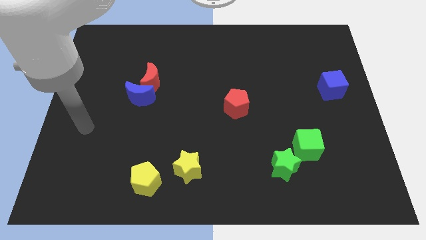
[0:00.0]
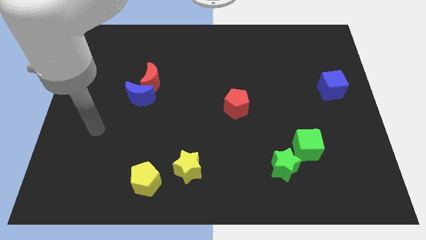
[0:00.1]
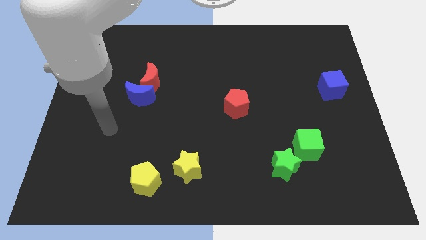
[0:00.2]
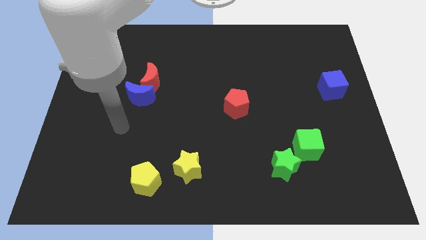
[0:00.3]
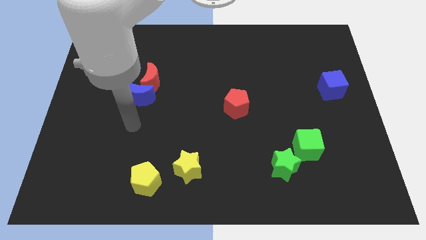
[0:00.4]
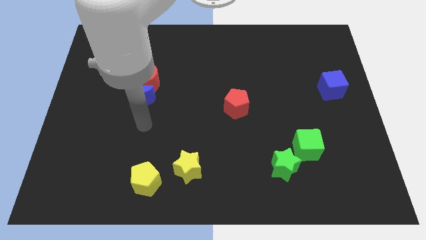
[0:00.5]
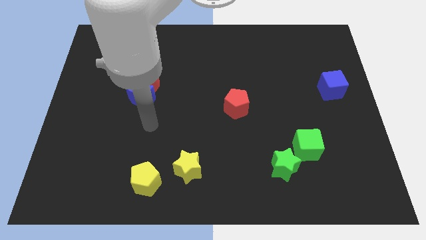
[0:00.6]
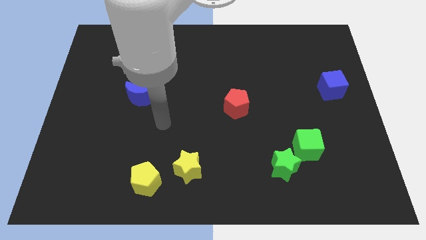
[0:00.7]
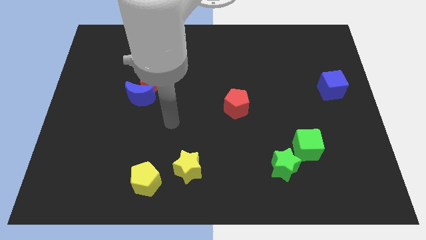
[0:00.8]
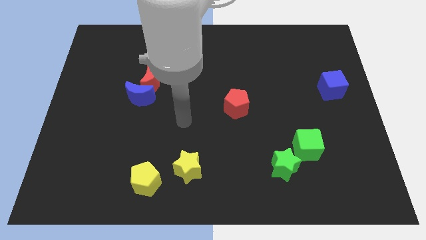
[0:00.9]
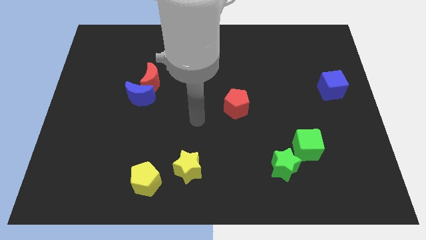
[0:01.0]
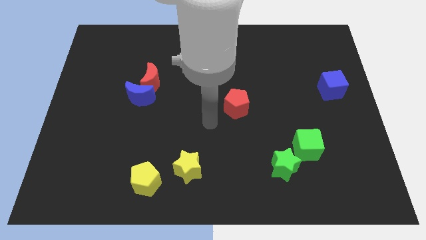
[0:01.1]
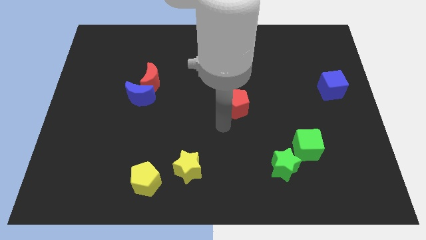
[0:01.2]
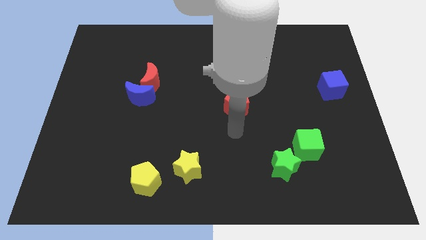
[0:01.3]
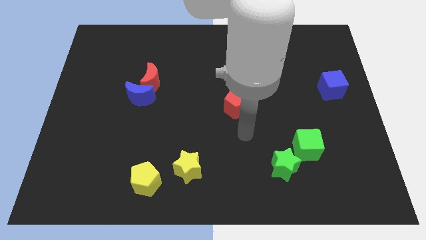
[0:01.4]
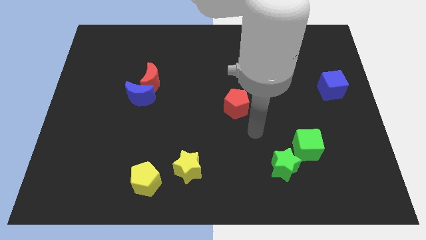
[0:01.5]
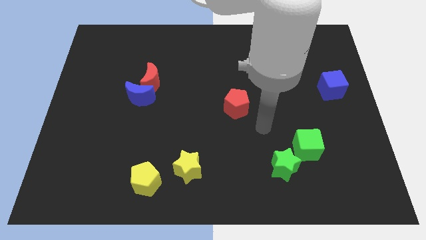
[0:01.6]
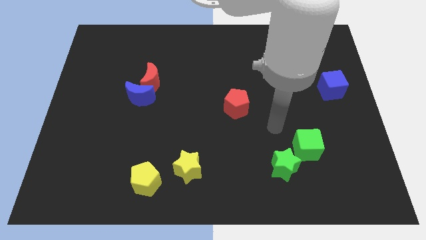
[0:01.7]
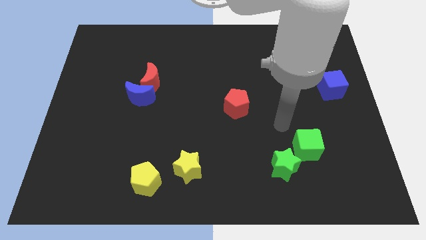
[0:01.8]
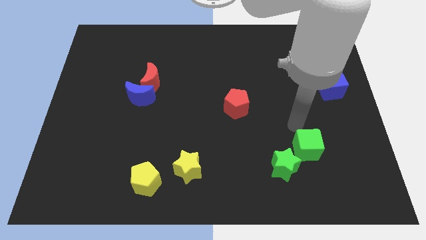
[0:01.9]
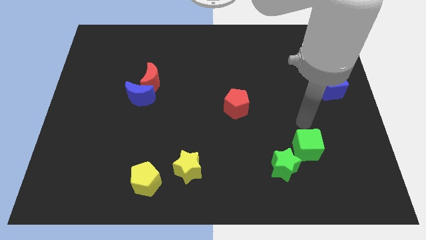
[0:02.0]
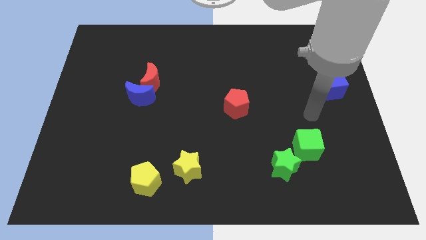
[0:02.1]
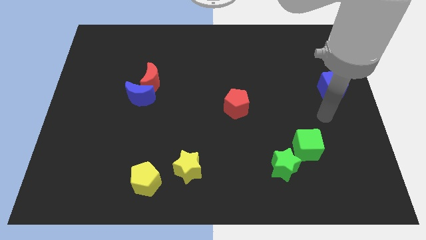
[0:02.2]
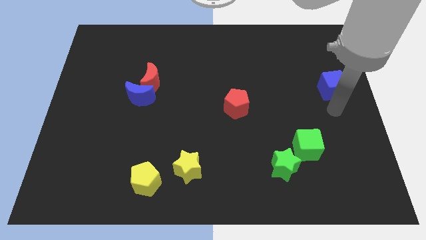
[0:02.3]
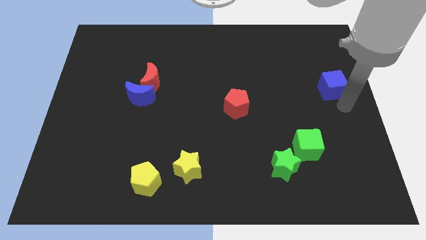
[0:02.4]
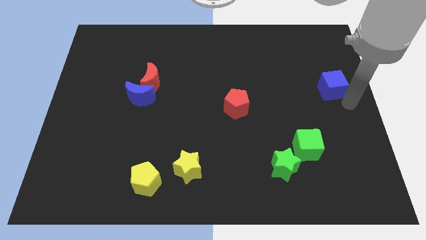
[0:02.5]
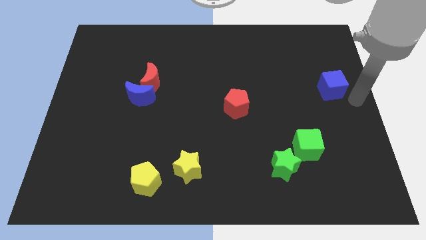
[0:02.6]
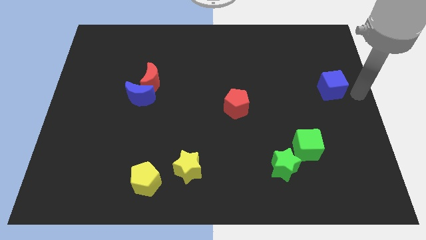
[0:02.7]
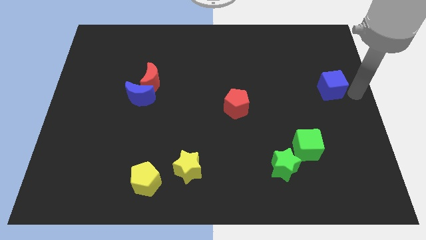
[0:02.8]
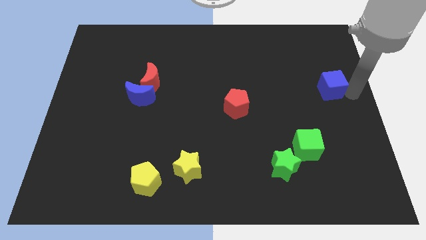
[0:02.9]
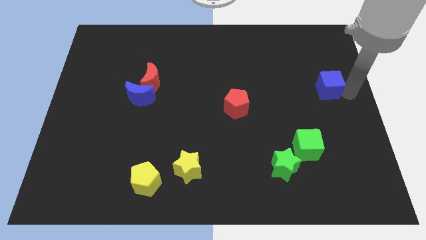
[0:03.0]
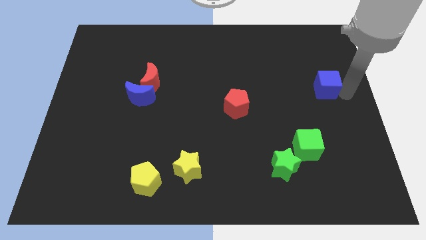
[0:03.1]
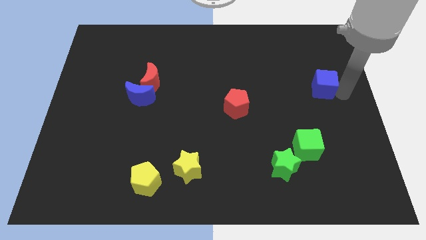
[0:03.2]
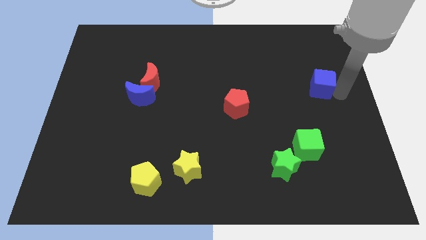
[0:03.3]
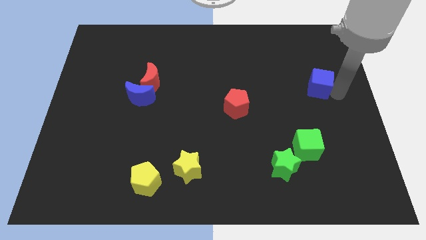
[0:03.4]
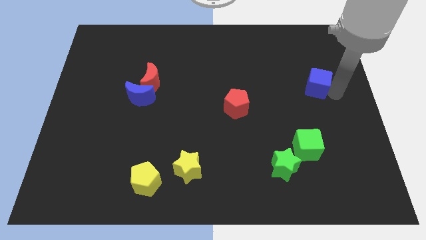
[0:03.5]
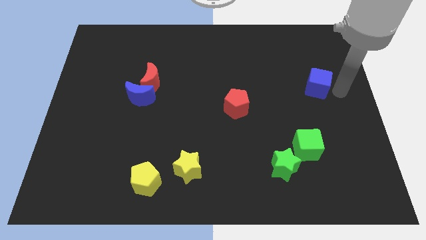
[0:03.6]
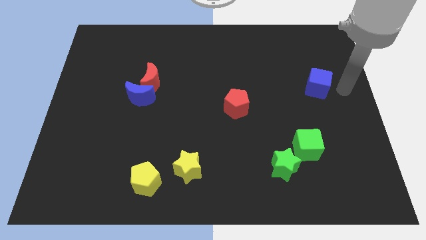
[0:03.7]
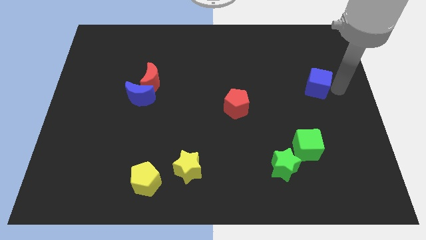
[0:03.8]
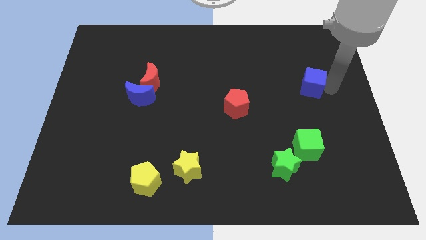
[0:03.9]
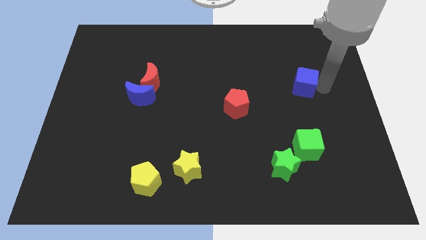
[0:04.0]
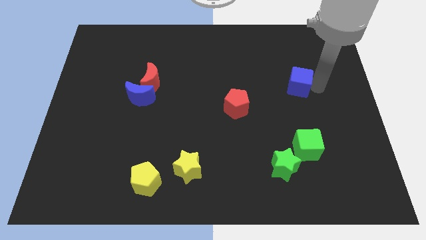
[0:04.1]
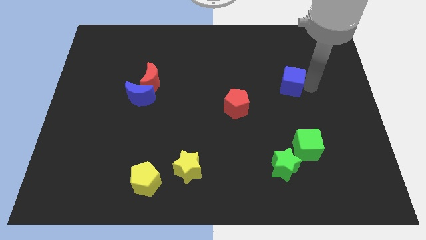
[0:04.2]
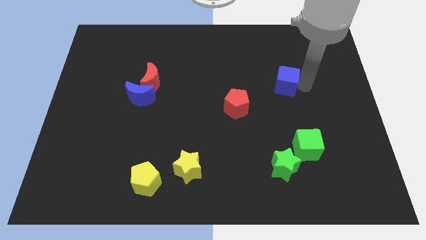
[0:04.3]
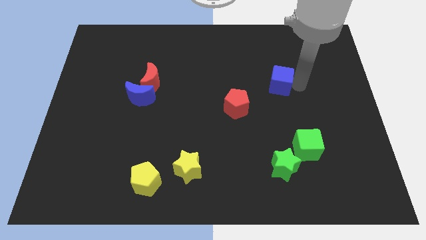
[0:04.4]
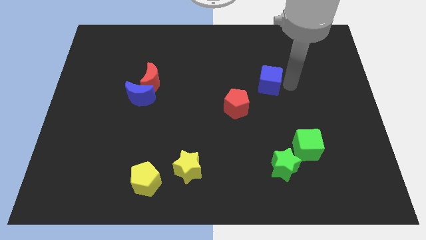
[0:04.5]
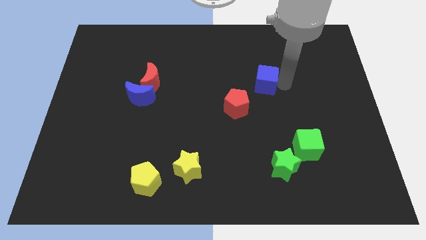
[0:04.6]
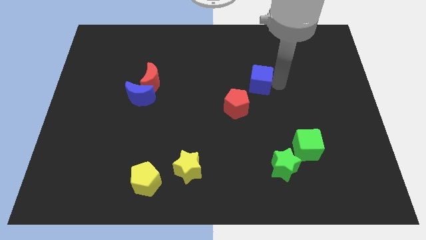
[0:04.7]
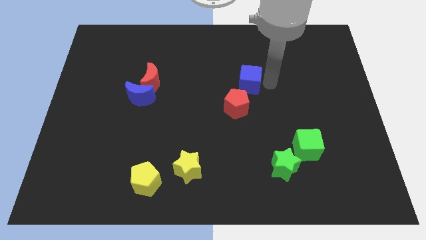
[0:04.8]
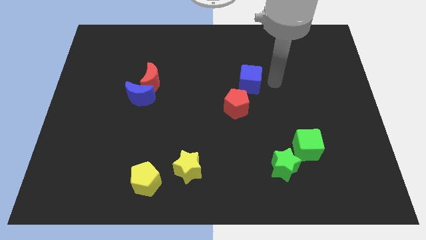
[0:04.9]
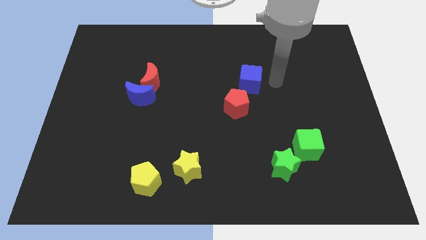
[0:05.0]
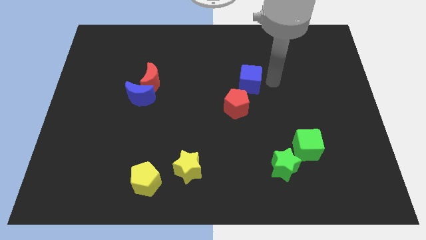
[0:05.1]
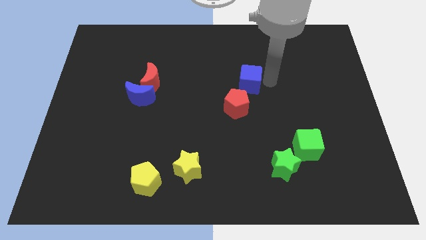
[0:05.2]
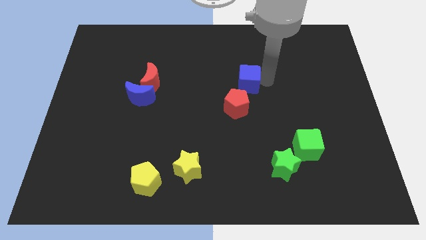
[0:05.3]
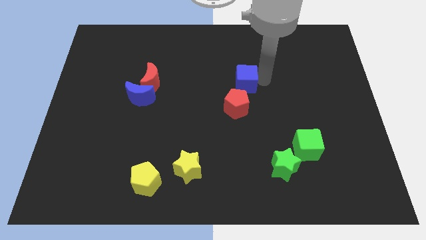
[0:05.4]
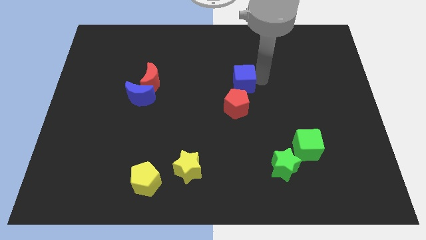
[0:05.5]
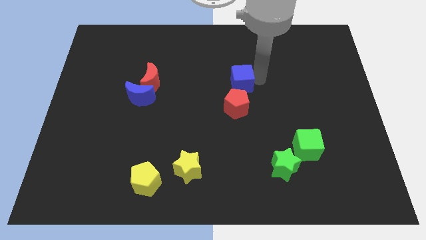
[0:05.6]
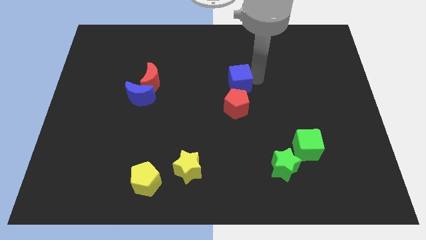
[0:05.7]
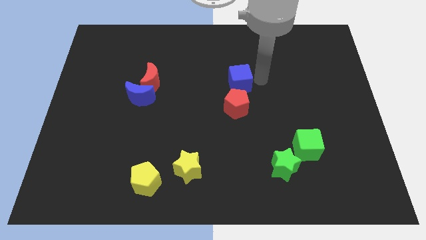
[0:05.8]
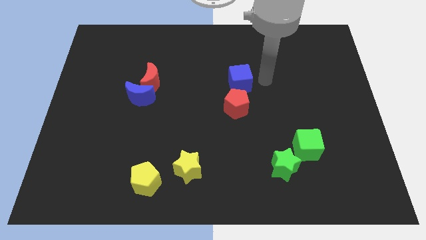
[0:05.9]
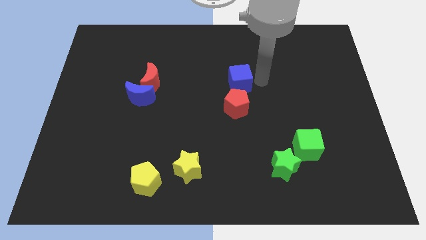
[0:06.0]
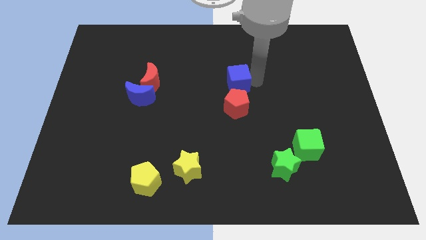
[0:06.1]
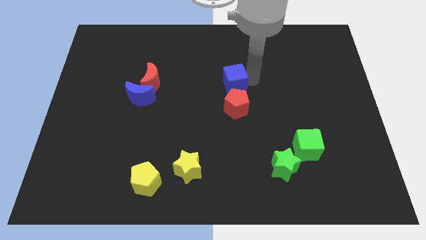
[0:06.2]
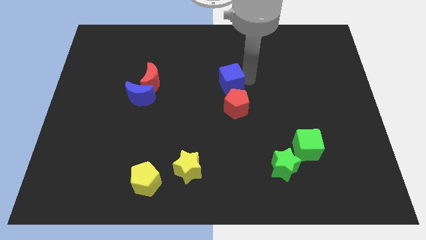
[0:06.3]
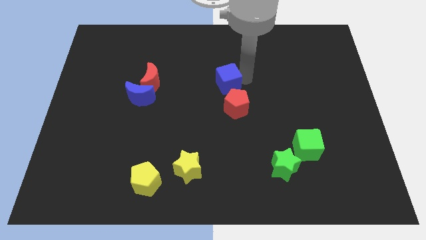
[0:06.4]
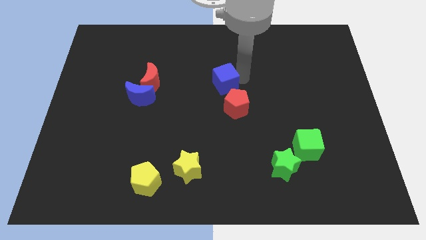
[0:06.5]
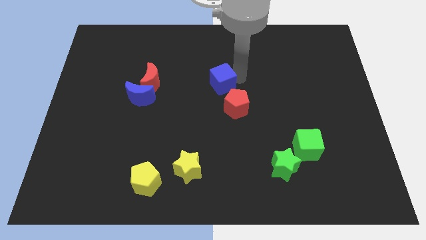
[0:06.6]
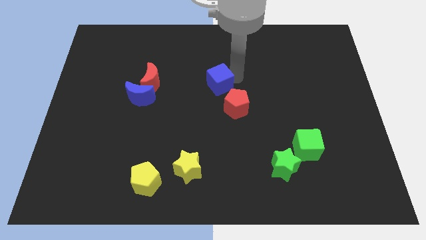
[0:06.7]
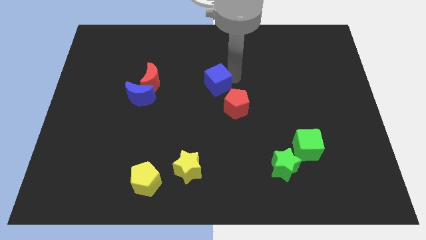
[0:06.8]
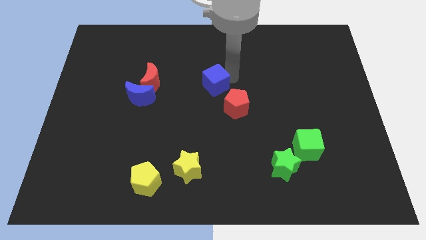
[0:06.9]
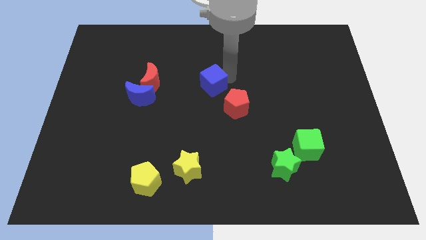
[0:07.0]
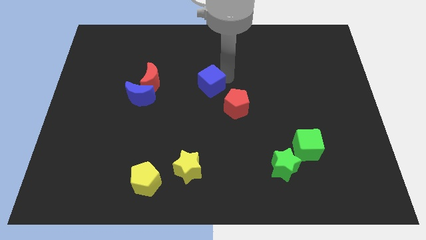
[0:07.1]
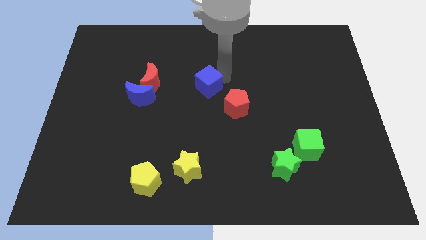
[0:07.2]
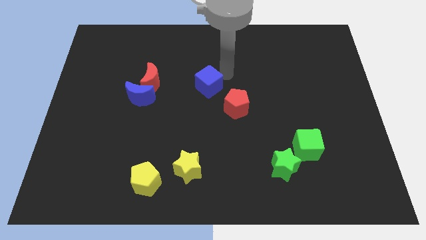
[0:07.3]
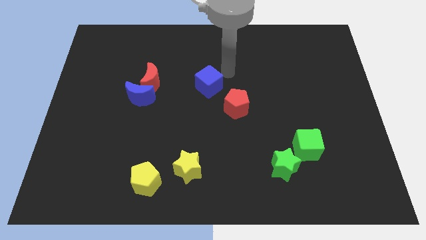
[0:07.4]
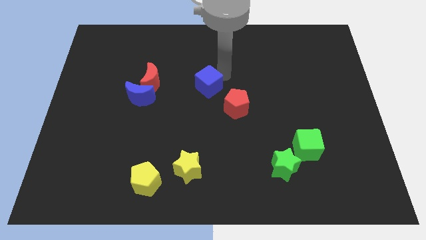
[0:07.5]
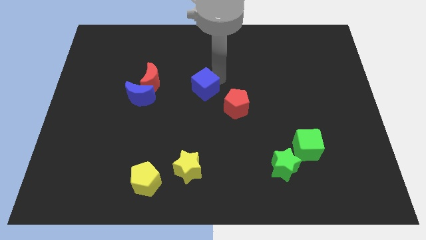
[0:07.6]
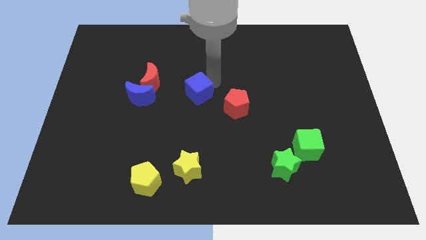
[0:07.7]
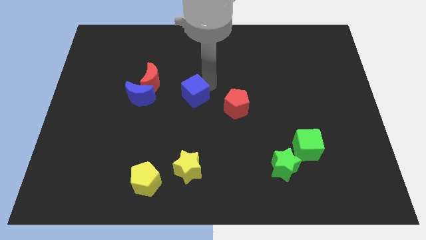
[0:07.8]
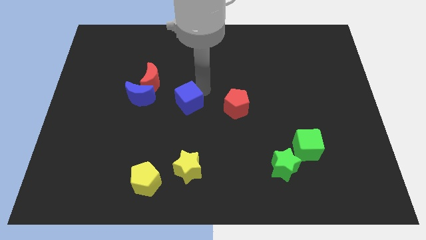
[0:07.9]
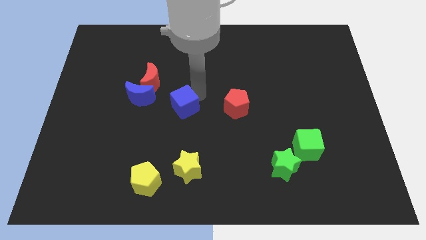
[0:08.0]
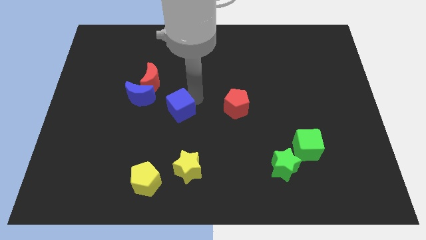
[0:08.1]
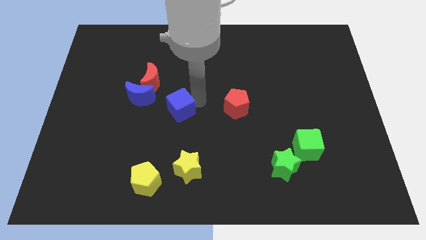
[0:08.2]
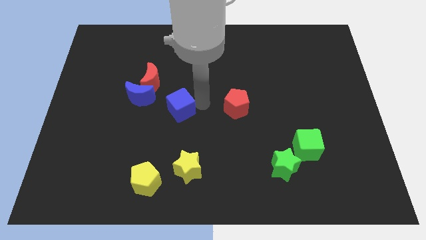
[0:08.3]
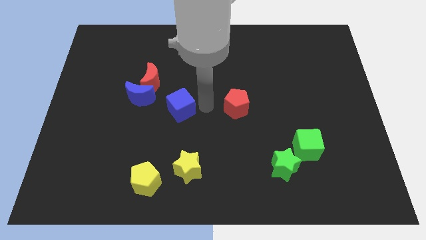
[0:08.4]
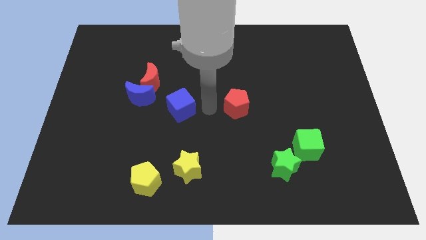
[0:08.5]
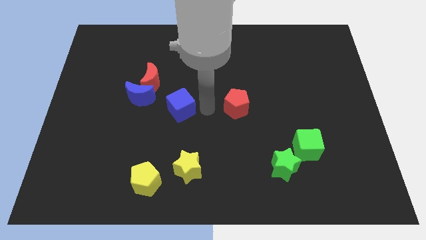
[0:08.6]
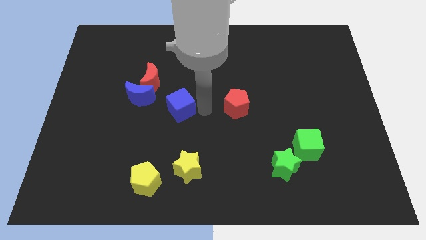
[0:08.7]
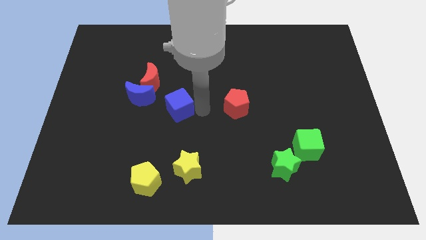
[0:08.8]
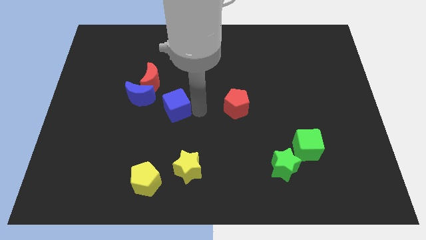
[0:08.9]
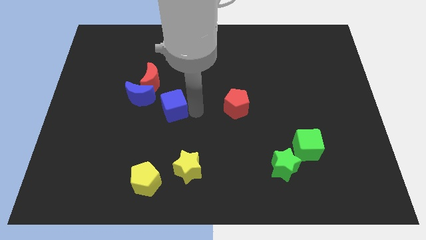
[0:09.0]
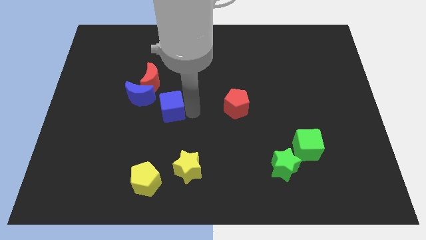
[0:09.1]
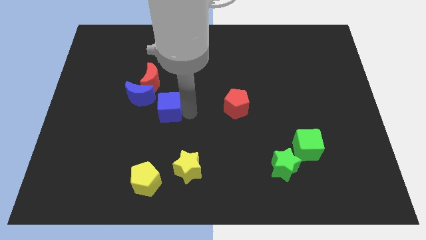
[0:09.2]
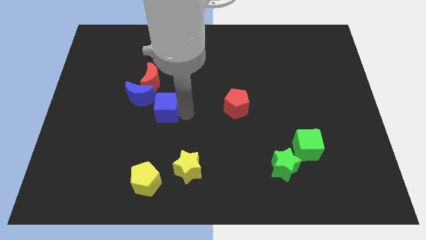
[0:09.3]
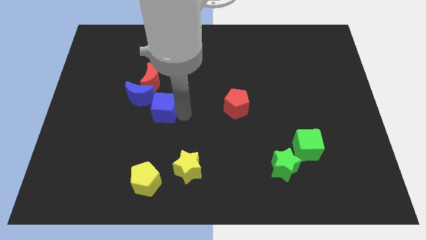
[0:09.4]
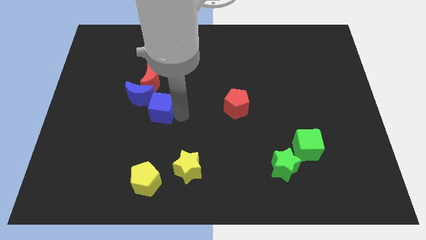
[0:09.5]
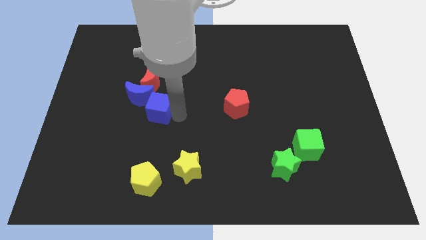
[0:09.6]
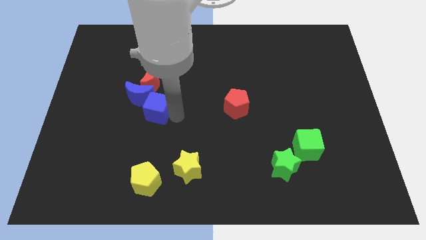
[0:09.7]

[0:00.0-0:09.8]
put the blue cube close to the blue moon
